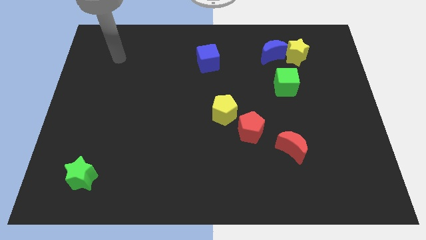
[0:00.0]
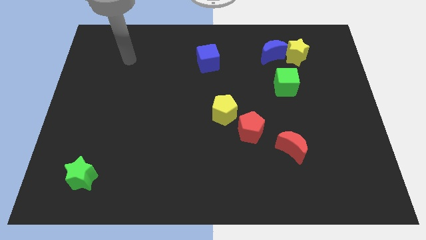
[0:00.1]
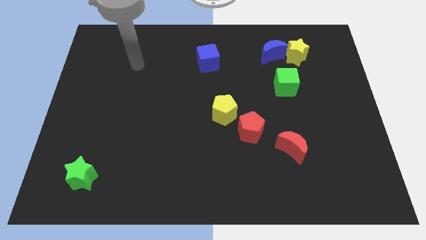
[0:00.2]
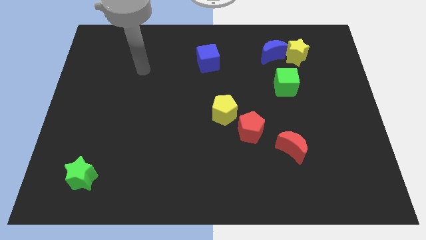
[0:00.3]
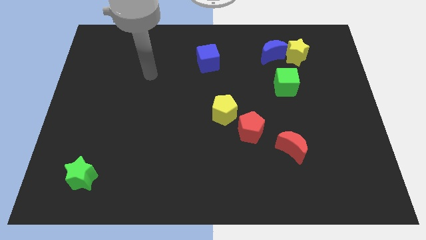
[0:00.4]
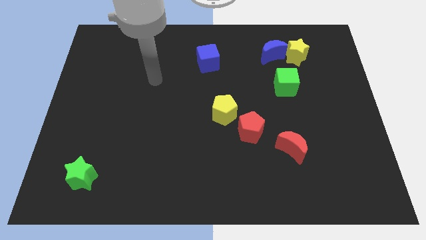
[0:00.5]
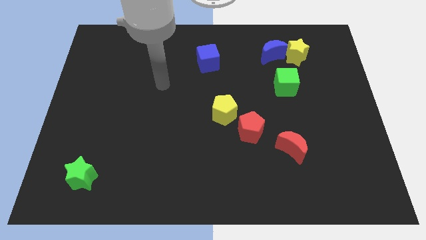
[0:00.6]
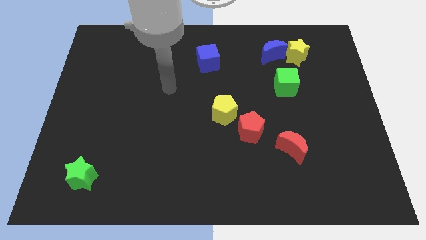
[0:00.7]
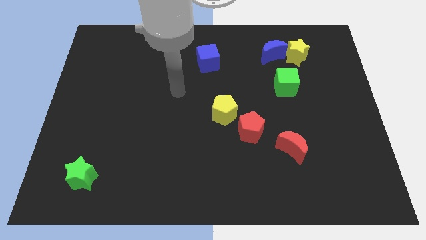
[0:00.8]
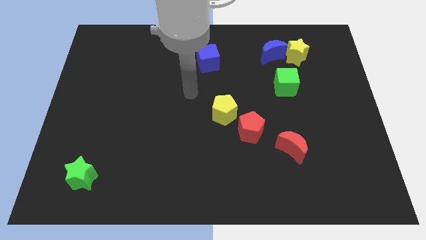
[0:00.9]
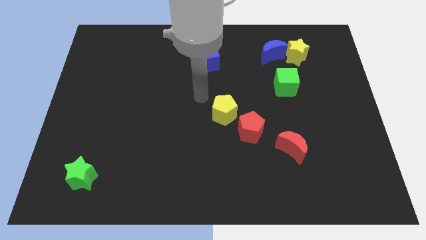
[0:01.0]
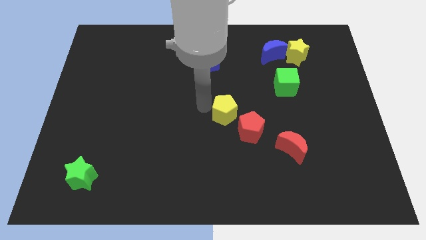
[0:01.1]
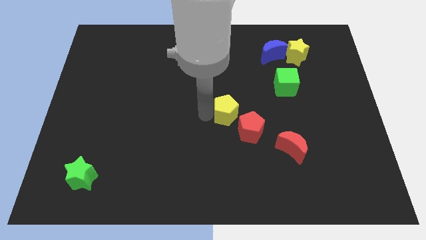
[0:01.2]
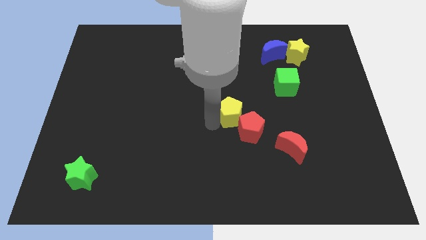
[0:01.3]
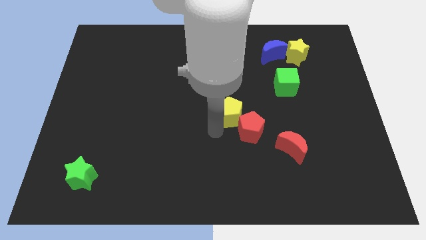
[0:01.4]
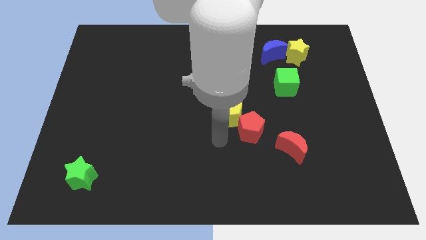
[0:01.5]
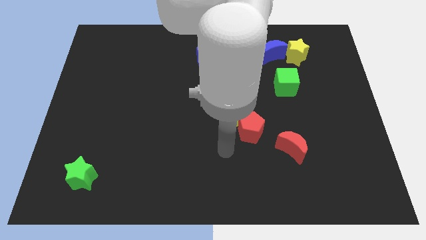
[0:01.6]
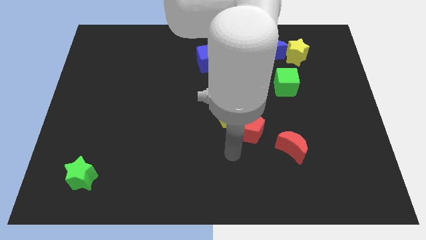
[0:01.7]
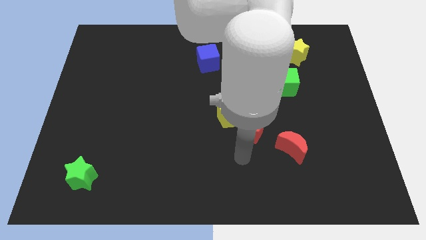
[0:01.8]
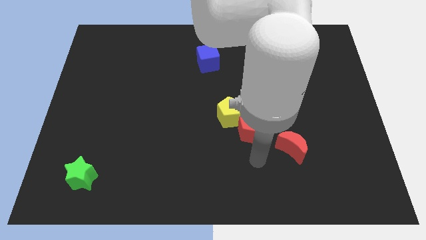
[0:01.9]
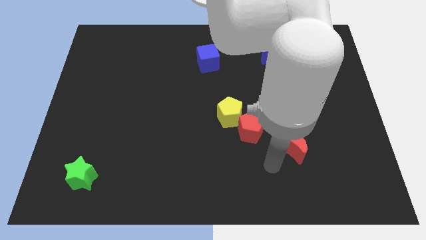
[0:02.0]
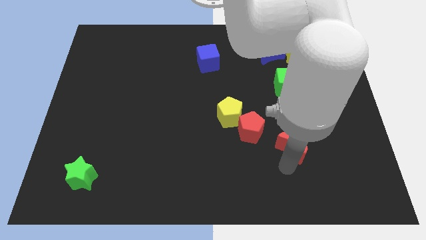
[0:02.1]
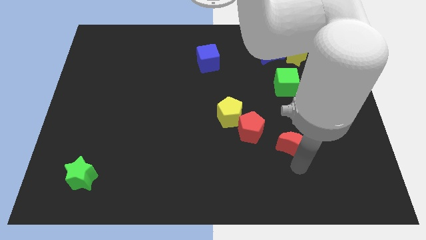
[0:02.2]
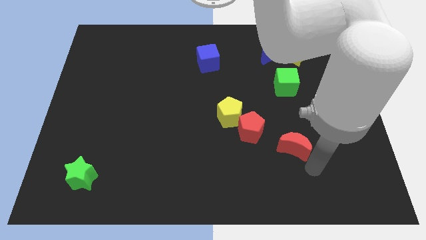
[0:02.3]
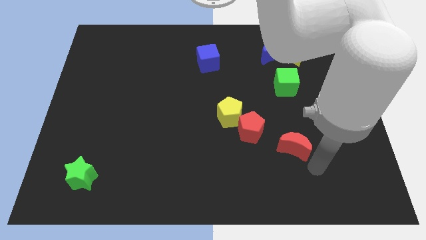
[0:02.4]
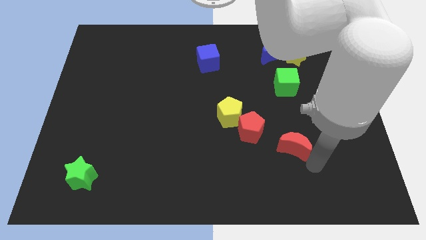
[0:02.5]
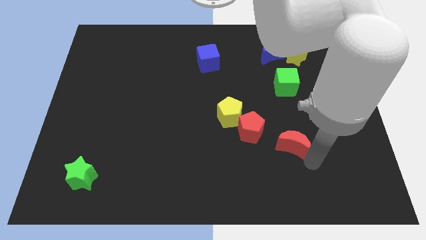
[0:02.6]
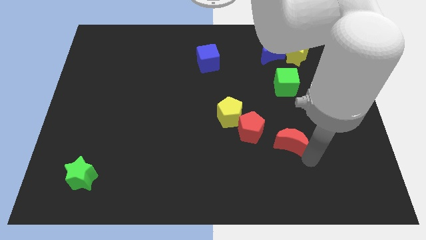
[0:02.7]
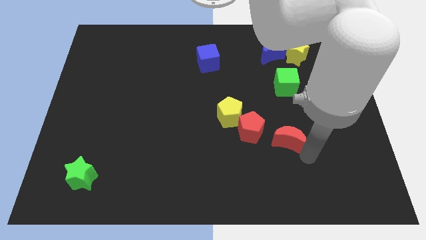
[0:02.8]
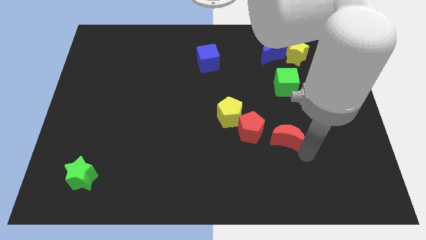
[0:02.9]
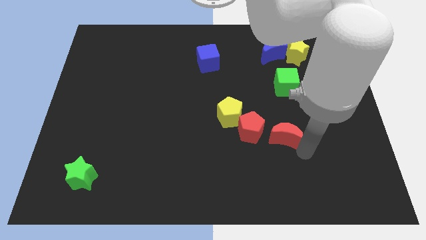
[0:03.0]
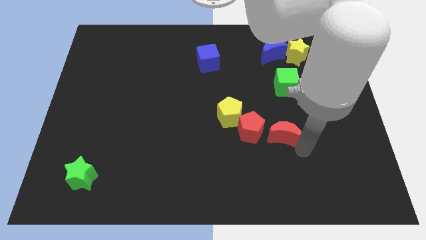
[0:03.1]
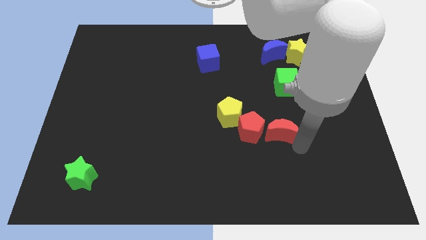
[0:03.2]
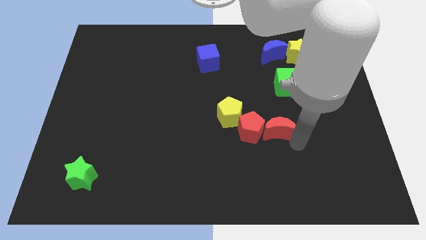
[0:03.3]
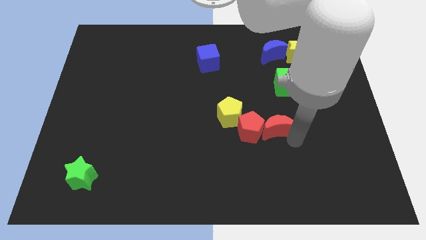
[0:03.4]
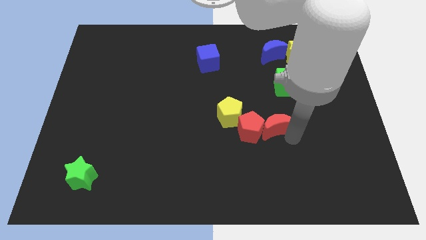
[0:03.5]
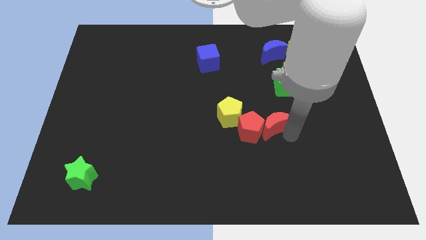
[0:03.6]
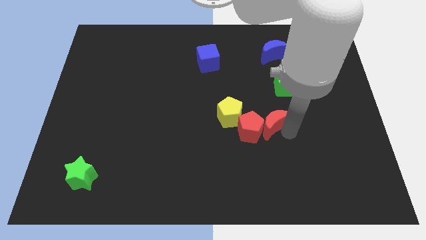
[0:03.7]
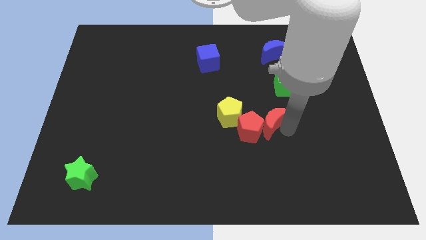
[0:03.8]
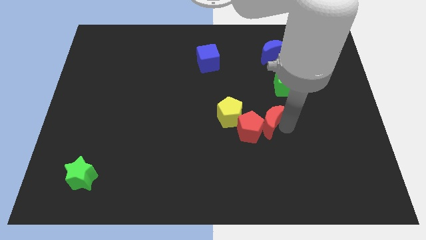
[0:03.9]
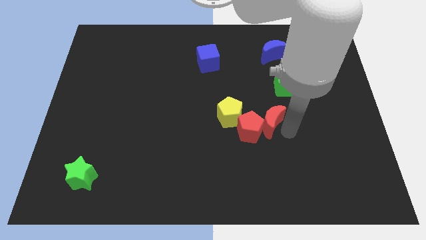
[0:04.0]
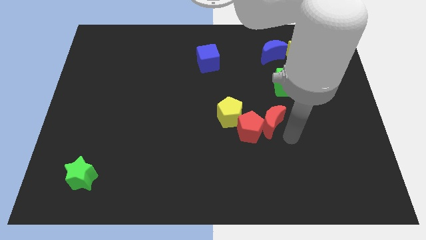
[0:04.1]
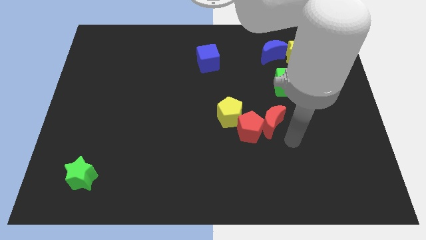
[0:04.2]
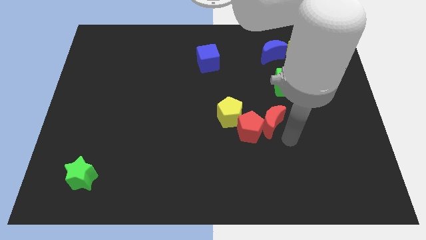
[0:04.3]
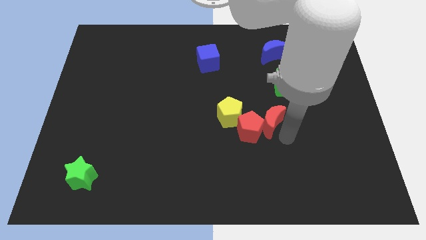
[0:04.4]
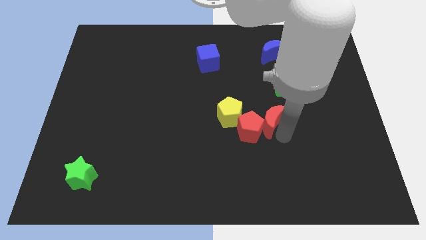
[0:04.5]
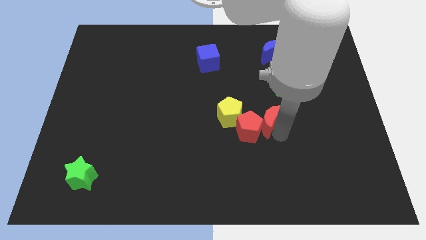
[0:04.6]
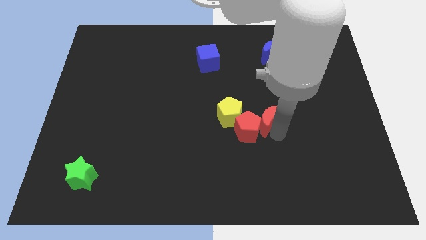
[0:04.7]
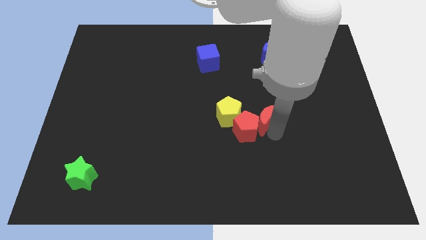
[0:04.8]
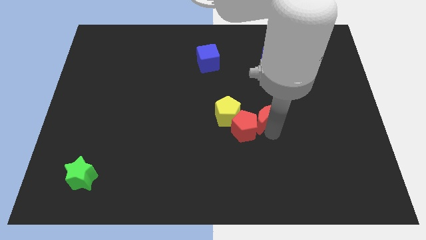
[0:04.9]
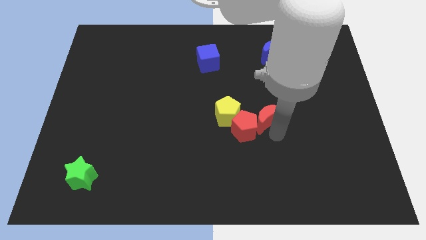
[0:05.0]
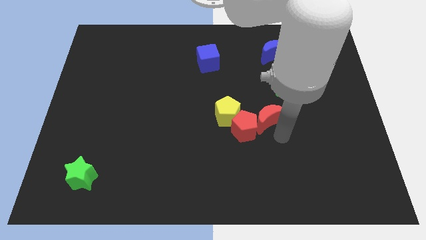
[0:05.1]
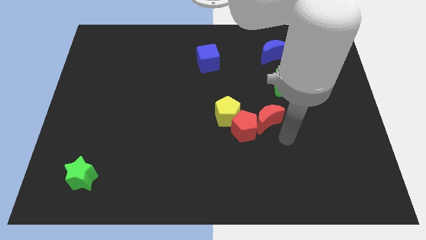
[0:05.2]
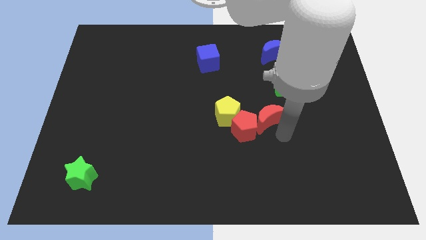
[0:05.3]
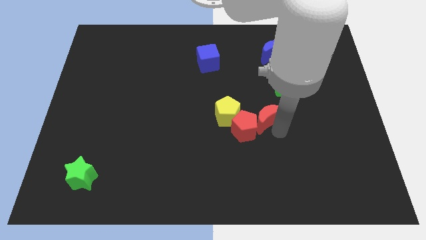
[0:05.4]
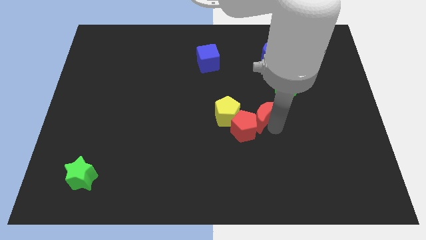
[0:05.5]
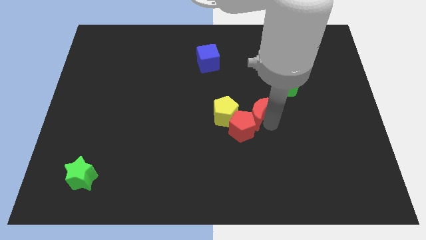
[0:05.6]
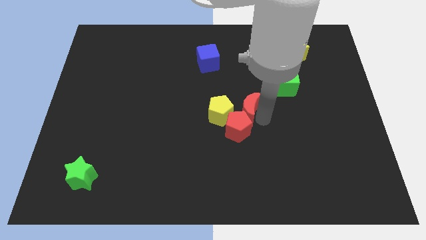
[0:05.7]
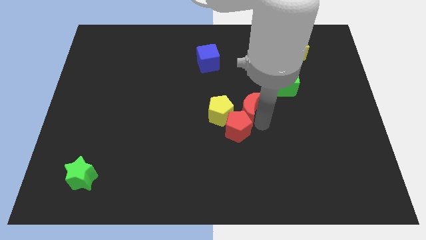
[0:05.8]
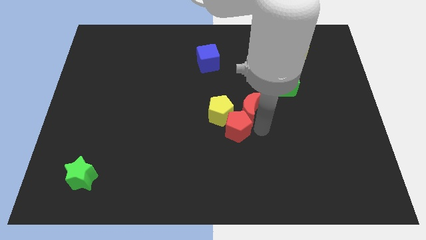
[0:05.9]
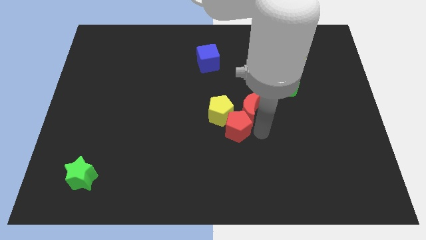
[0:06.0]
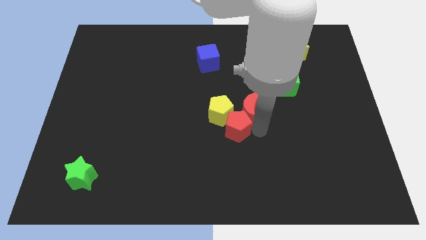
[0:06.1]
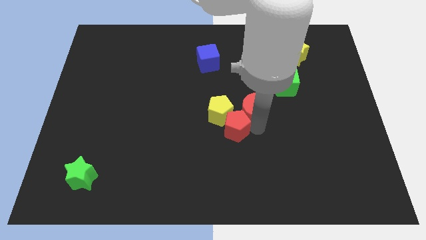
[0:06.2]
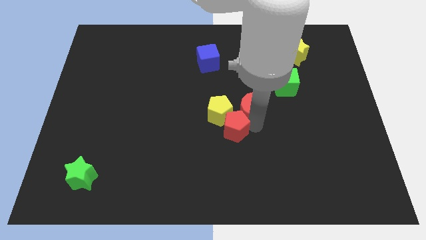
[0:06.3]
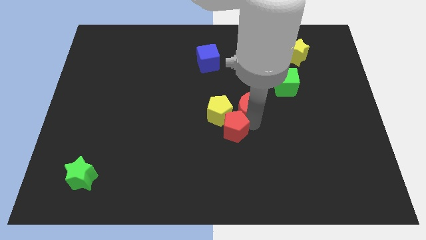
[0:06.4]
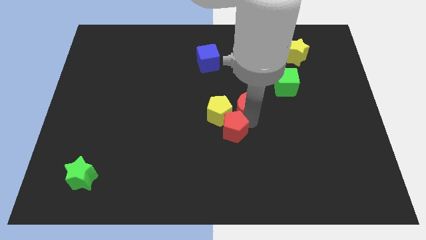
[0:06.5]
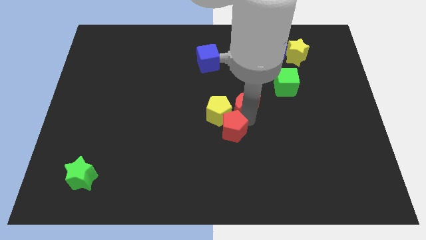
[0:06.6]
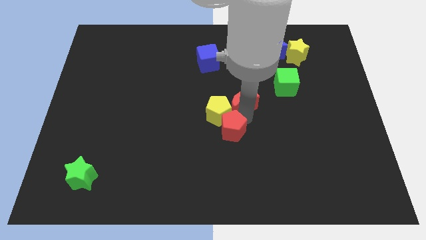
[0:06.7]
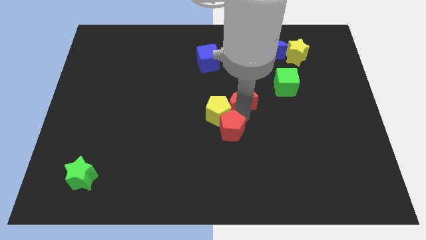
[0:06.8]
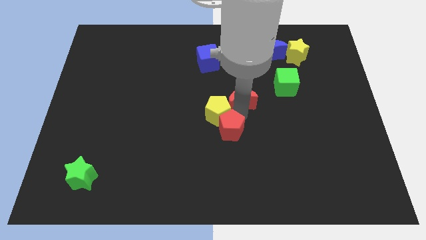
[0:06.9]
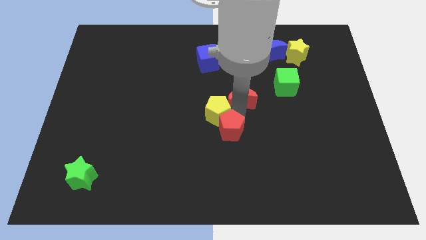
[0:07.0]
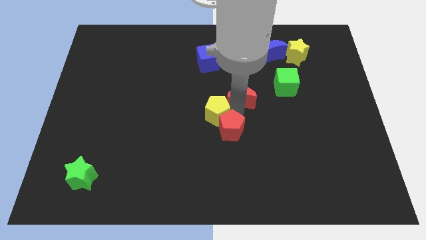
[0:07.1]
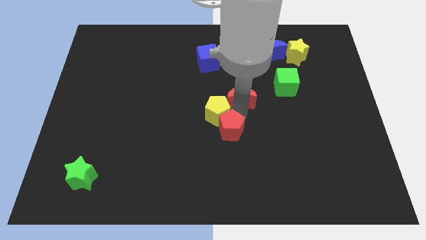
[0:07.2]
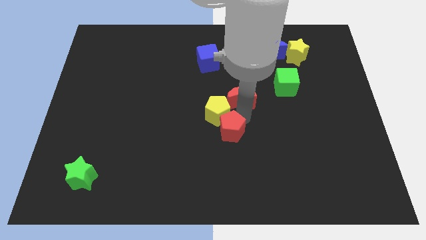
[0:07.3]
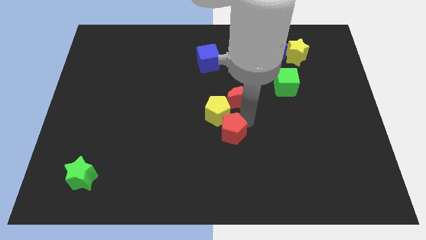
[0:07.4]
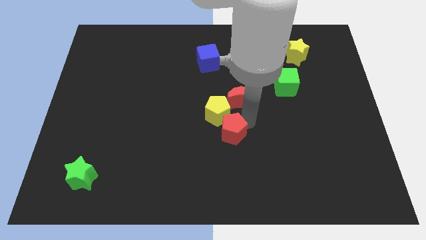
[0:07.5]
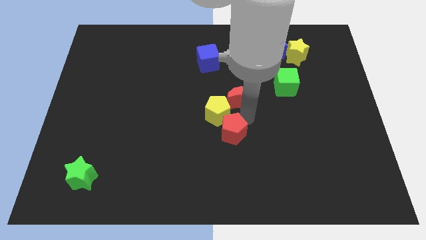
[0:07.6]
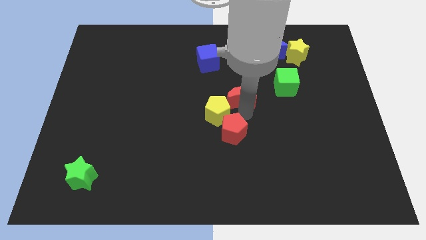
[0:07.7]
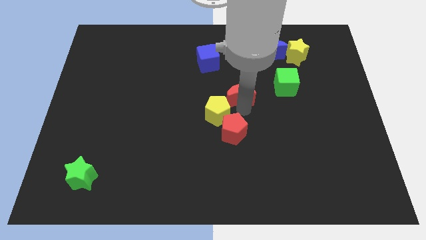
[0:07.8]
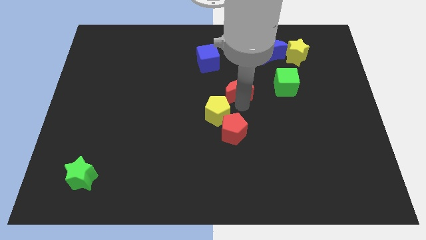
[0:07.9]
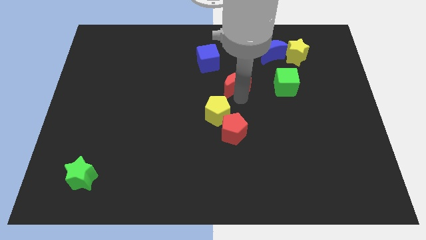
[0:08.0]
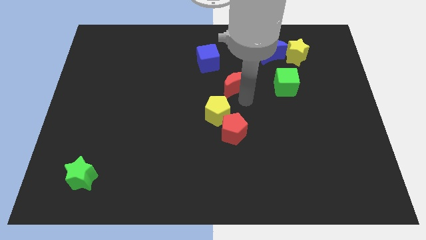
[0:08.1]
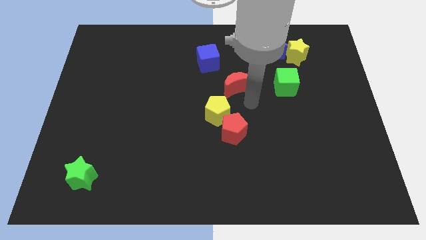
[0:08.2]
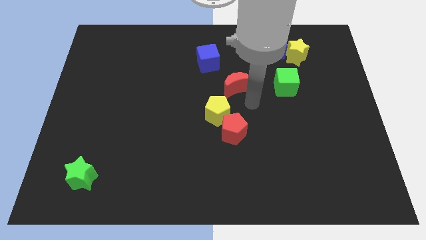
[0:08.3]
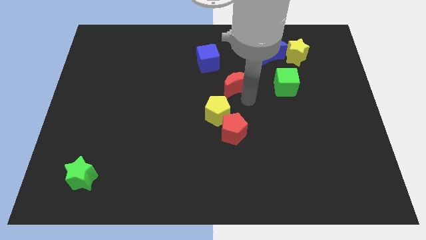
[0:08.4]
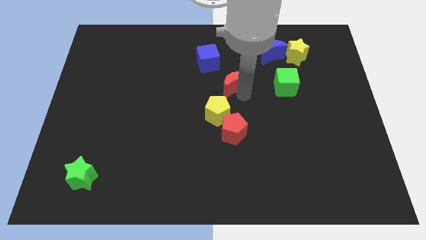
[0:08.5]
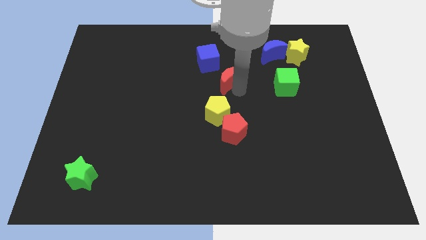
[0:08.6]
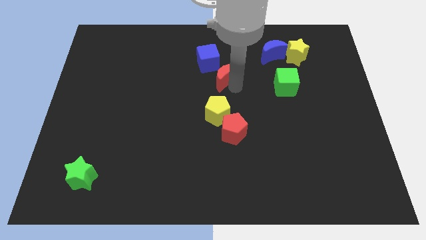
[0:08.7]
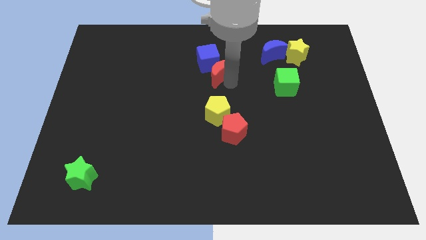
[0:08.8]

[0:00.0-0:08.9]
move the red moon to the blue cube
